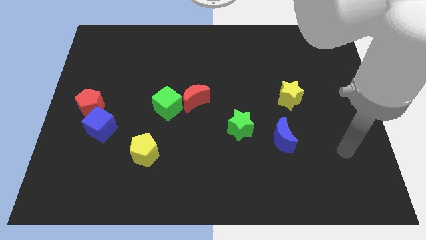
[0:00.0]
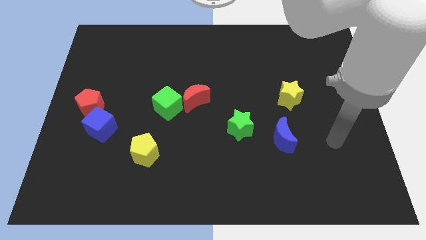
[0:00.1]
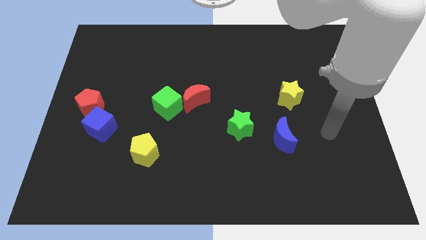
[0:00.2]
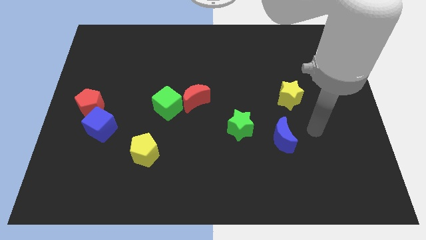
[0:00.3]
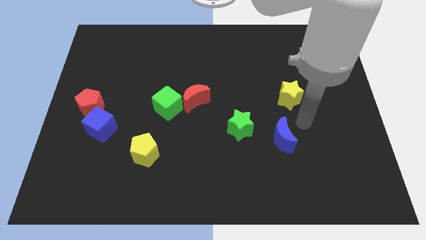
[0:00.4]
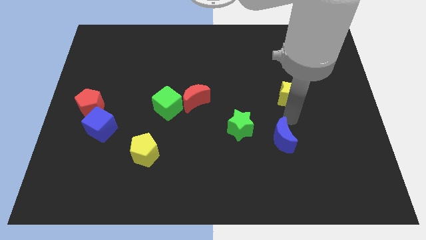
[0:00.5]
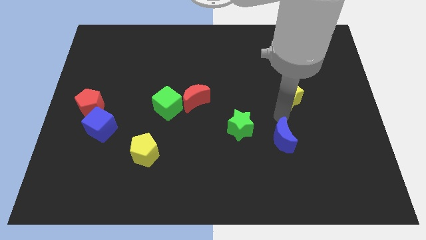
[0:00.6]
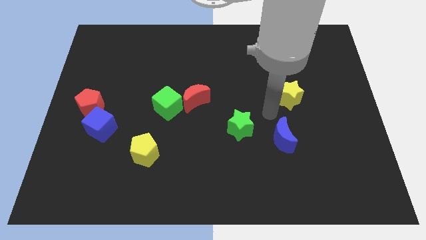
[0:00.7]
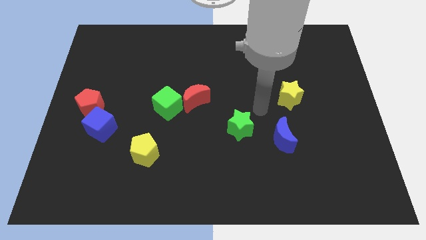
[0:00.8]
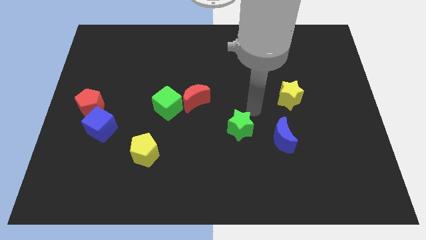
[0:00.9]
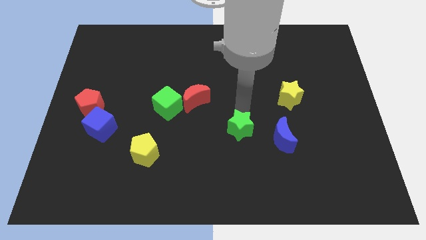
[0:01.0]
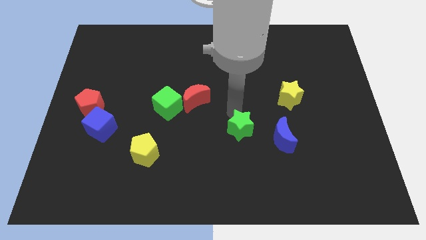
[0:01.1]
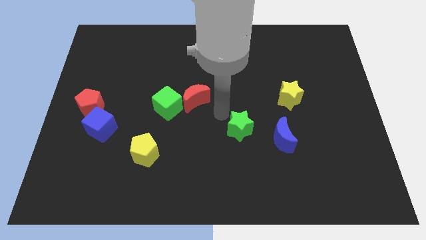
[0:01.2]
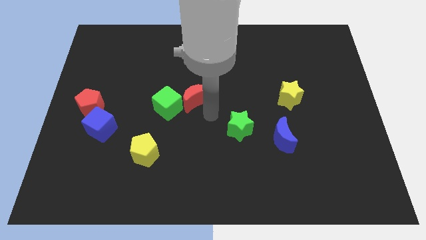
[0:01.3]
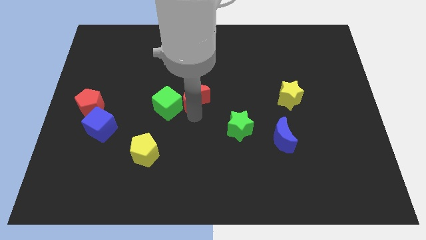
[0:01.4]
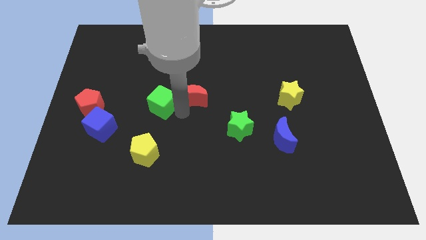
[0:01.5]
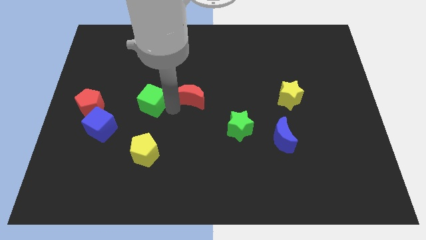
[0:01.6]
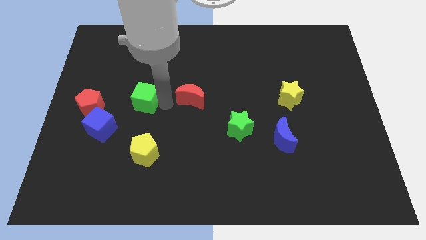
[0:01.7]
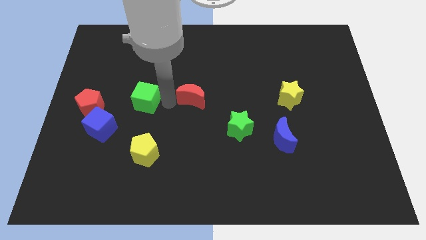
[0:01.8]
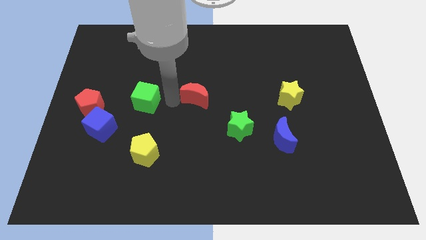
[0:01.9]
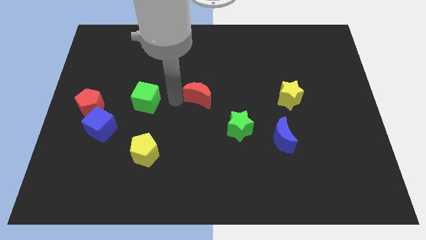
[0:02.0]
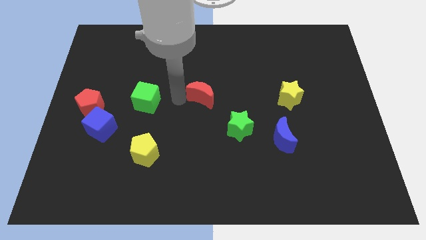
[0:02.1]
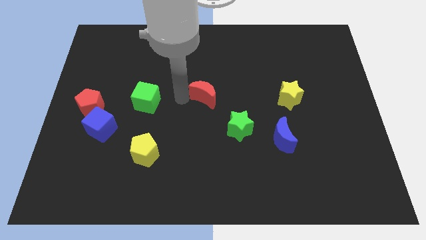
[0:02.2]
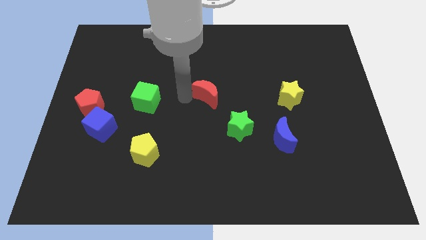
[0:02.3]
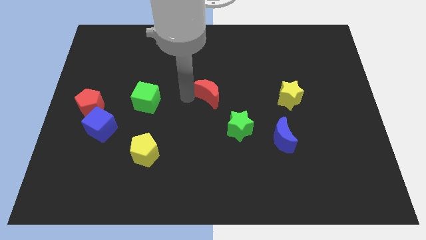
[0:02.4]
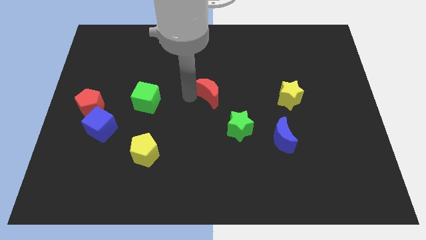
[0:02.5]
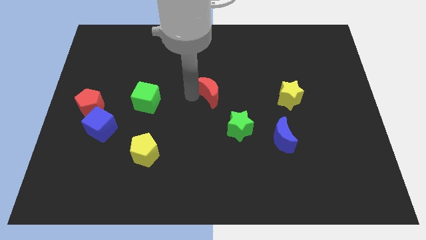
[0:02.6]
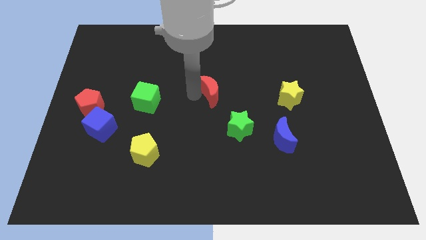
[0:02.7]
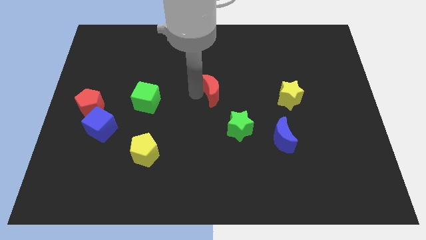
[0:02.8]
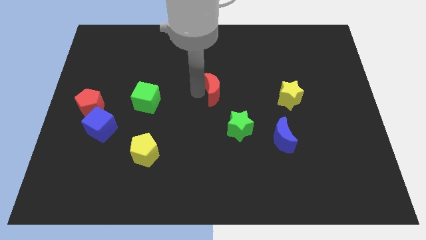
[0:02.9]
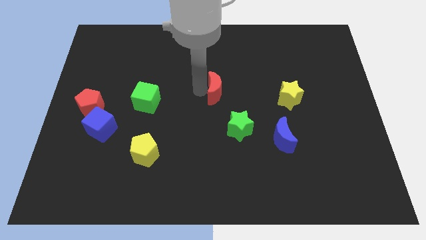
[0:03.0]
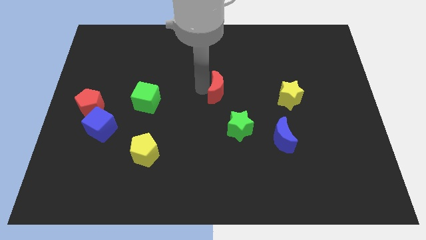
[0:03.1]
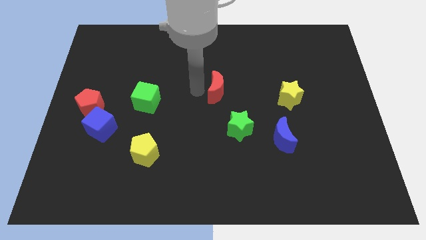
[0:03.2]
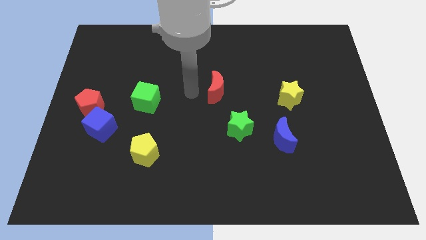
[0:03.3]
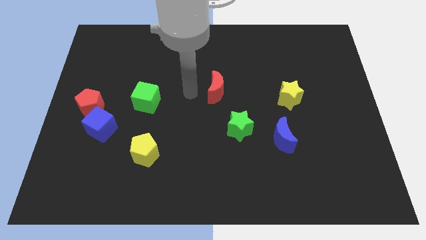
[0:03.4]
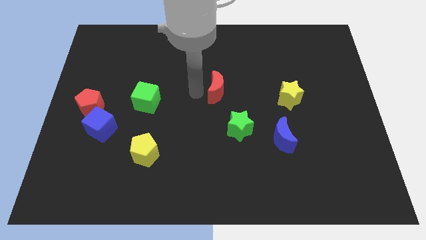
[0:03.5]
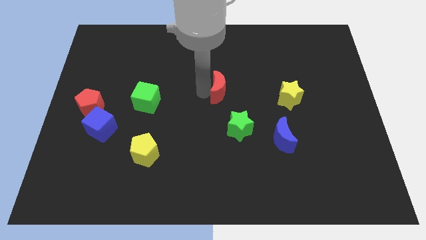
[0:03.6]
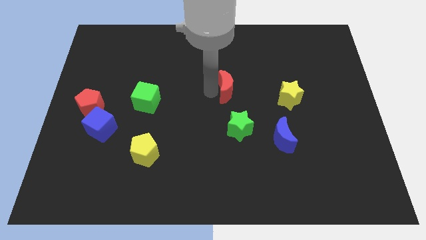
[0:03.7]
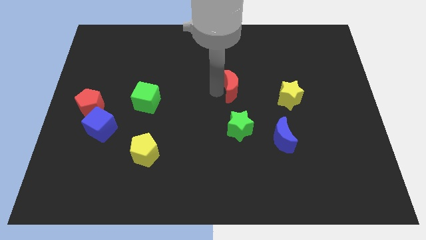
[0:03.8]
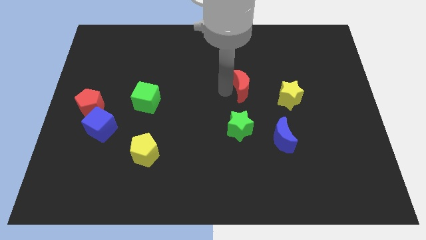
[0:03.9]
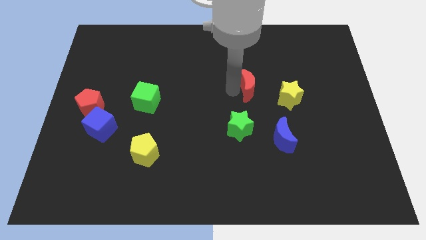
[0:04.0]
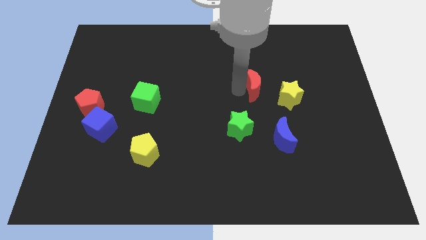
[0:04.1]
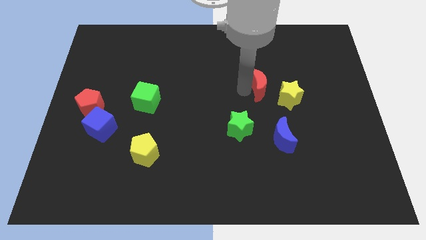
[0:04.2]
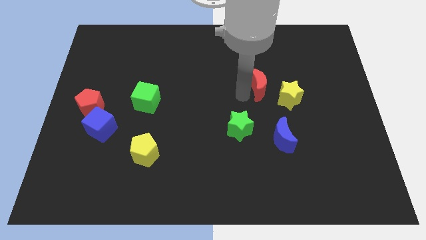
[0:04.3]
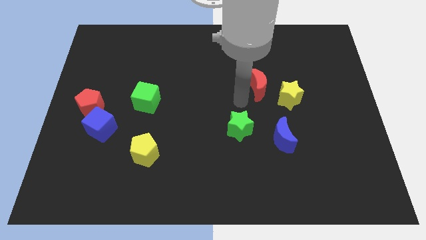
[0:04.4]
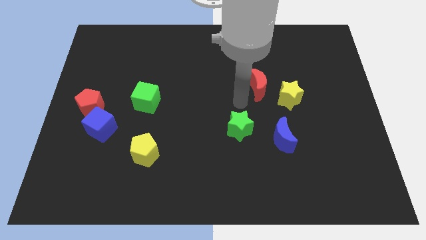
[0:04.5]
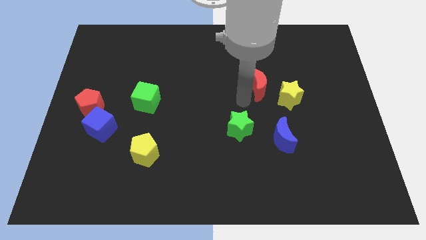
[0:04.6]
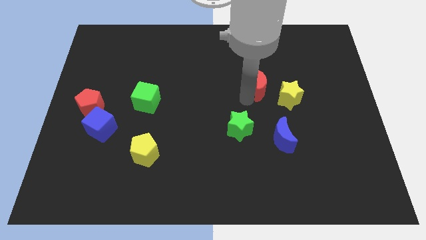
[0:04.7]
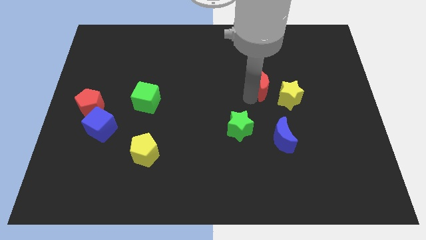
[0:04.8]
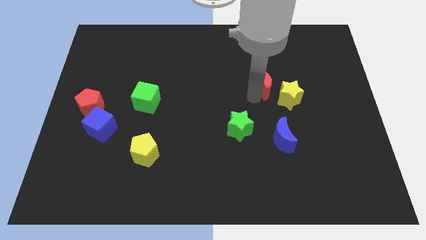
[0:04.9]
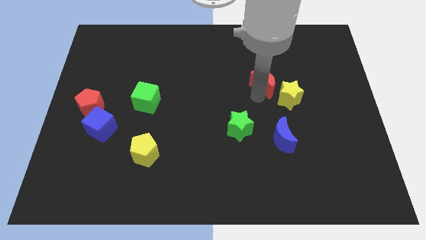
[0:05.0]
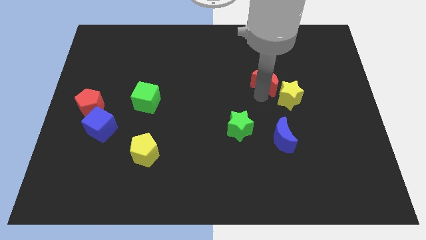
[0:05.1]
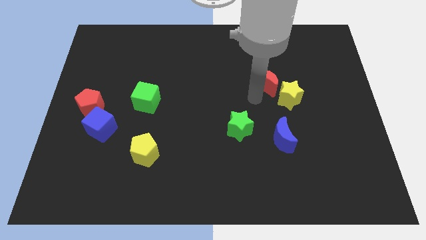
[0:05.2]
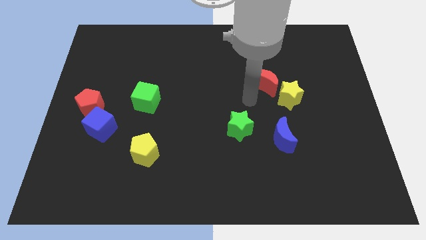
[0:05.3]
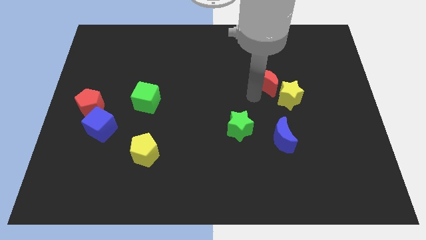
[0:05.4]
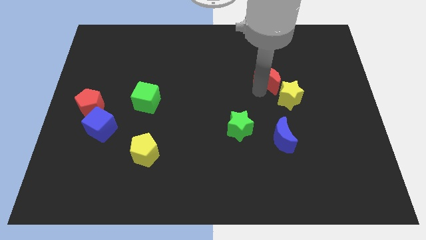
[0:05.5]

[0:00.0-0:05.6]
slide the red moon above the yellow star

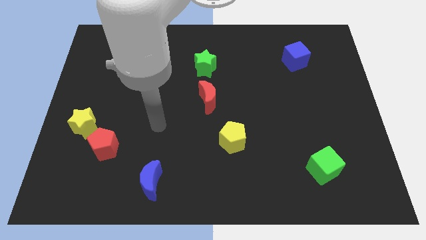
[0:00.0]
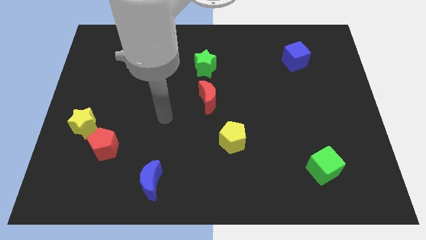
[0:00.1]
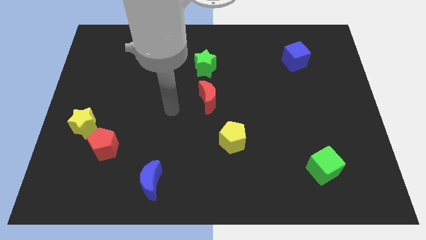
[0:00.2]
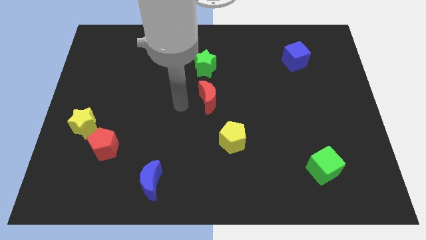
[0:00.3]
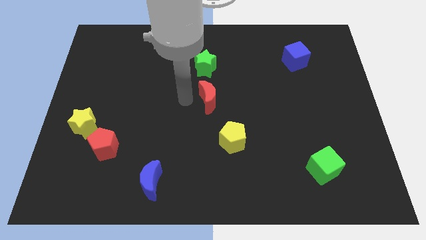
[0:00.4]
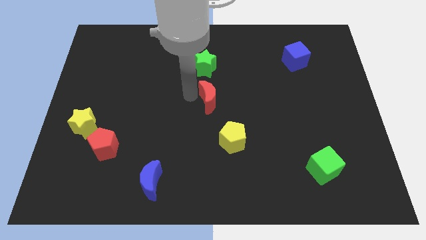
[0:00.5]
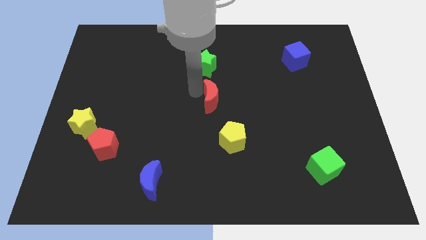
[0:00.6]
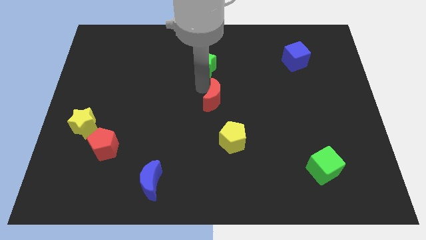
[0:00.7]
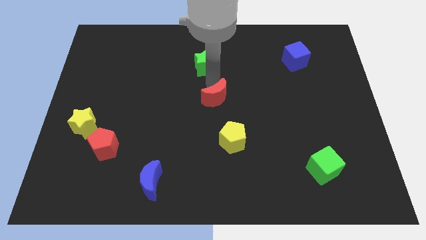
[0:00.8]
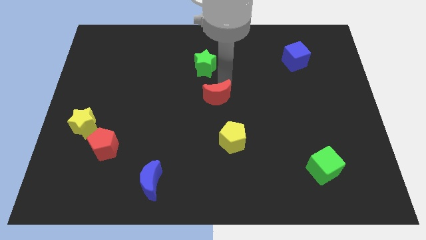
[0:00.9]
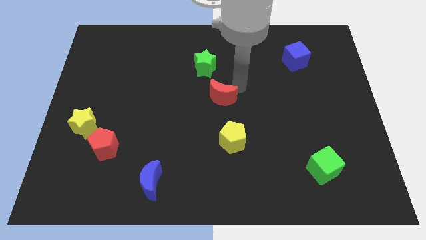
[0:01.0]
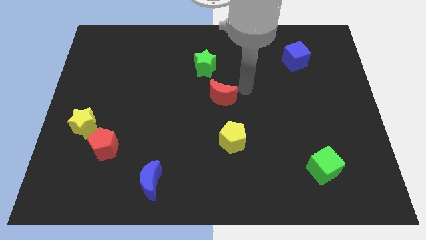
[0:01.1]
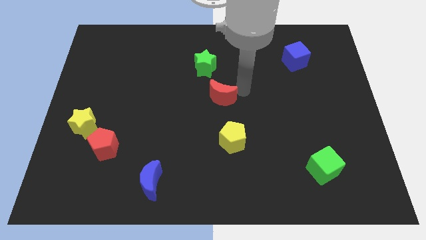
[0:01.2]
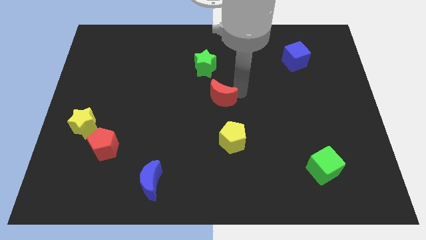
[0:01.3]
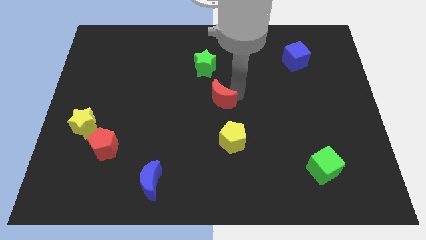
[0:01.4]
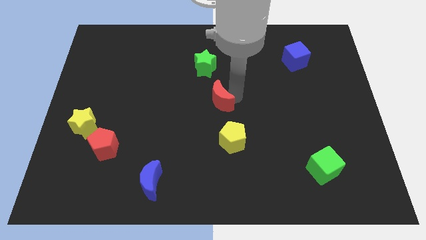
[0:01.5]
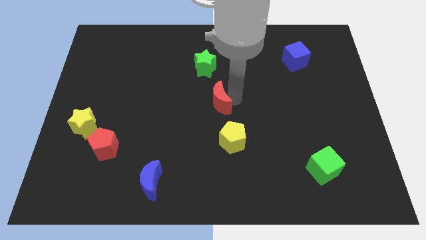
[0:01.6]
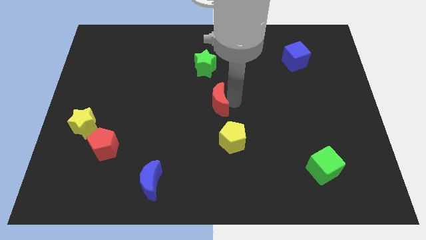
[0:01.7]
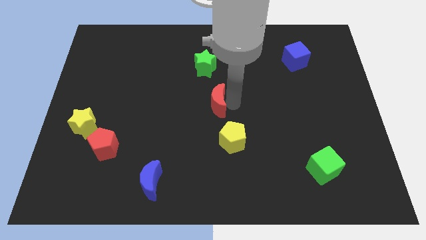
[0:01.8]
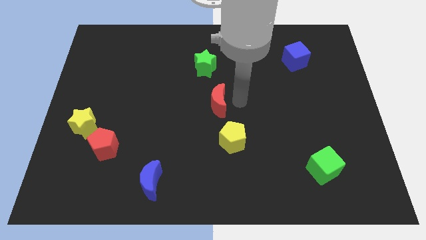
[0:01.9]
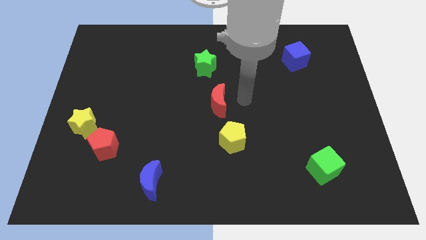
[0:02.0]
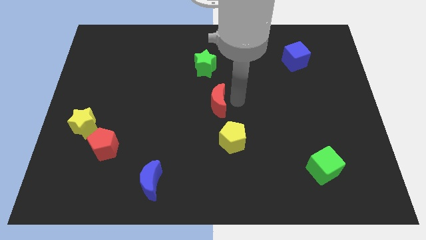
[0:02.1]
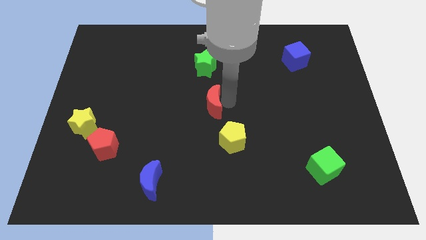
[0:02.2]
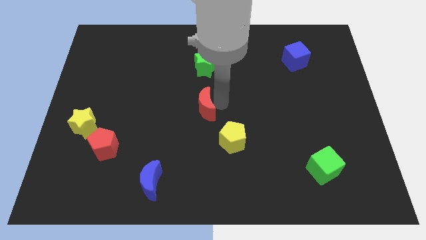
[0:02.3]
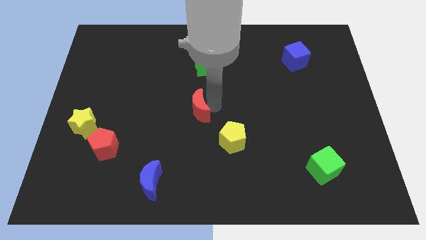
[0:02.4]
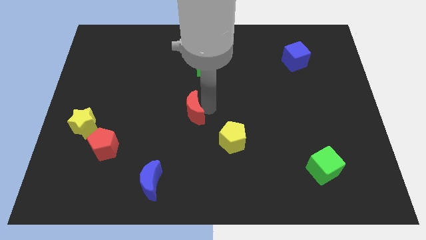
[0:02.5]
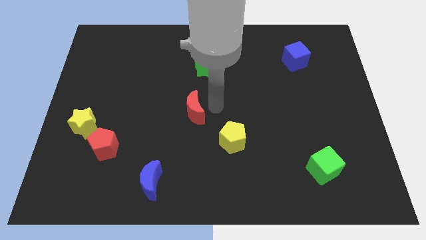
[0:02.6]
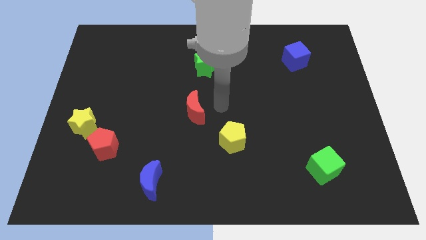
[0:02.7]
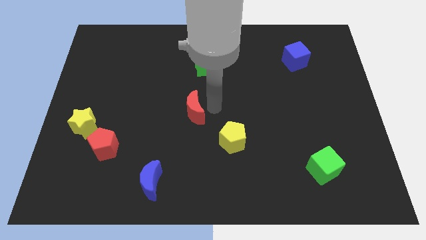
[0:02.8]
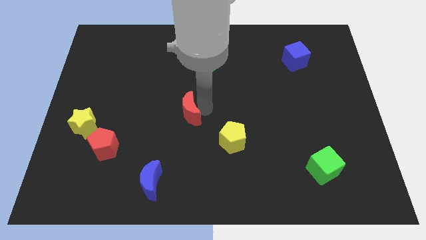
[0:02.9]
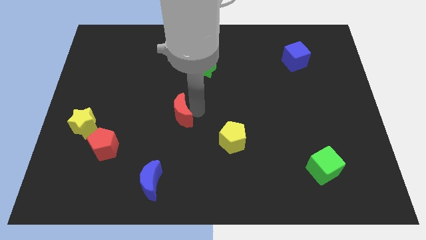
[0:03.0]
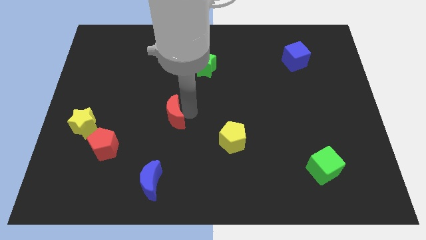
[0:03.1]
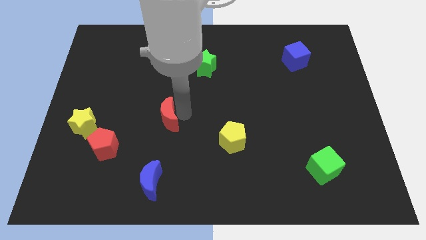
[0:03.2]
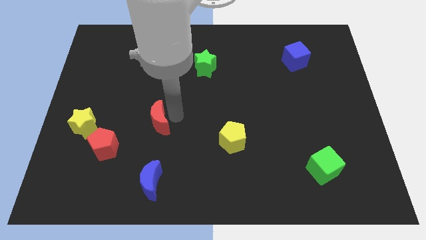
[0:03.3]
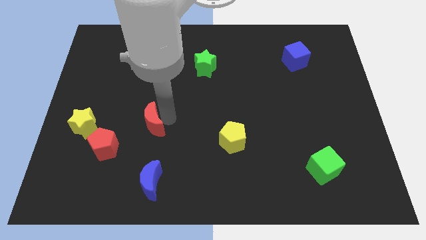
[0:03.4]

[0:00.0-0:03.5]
move the red moon diagonally up and to the right of the red pentagon
